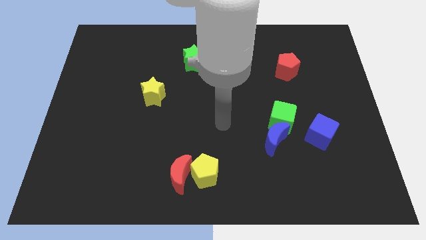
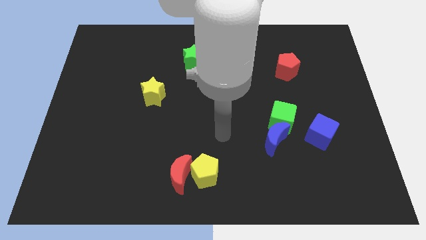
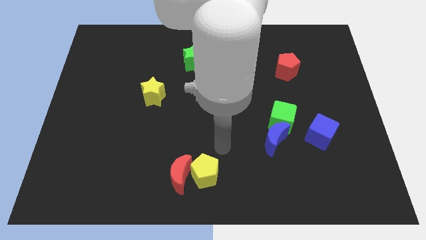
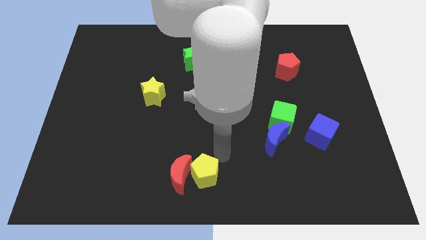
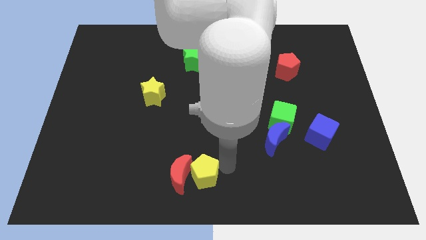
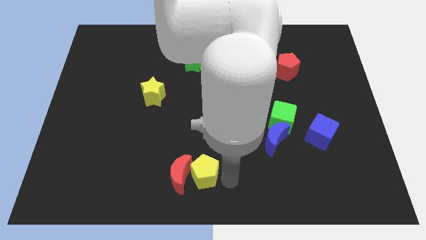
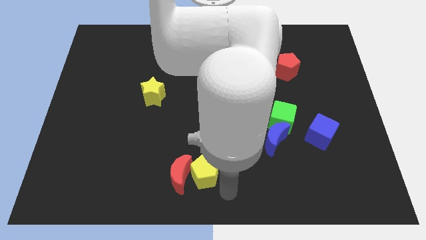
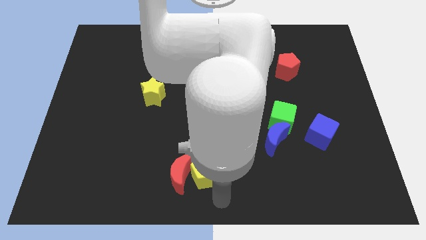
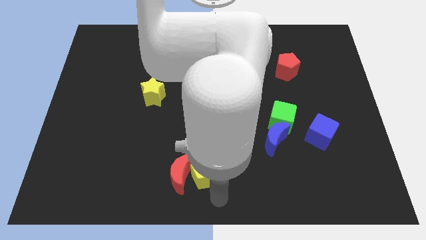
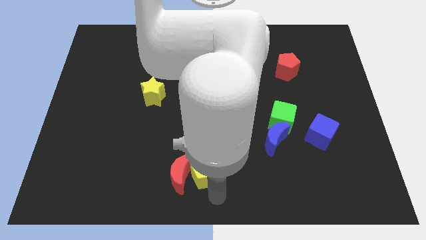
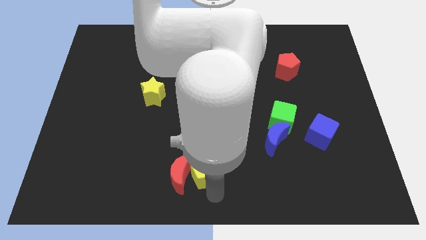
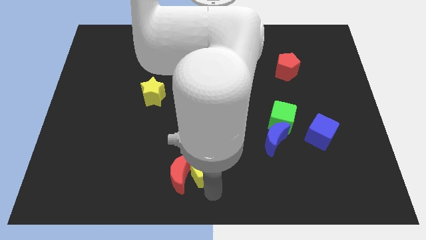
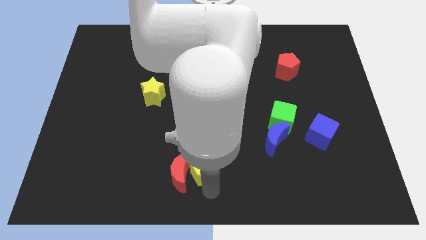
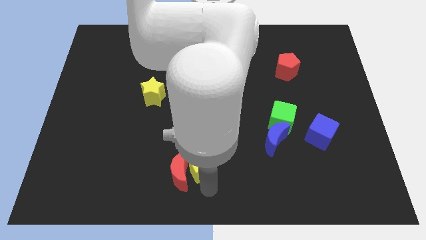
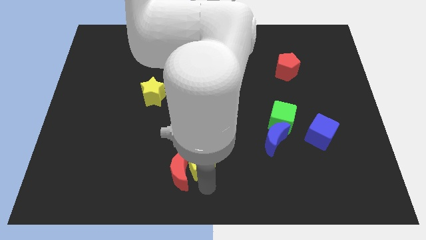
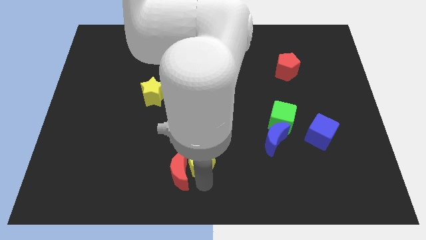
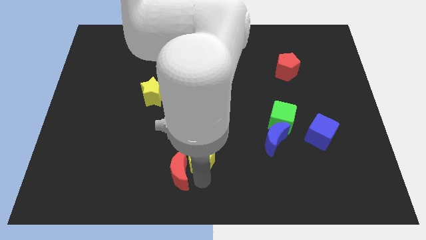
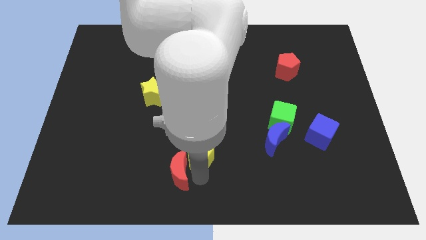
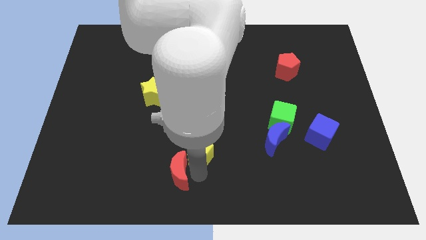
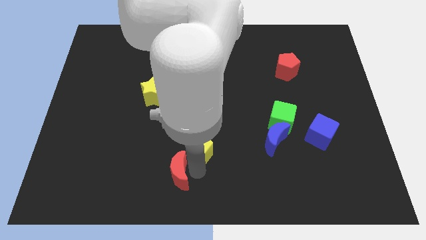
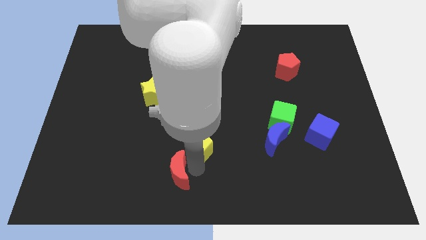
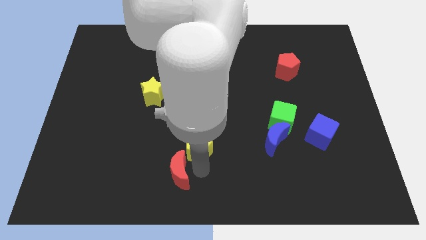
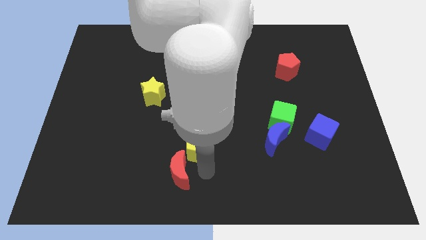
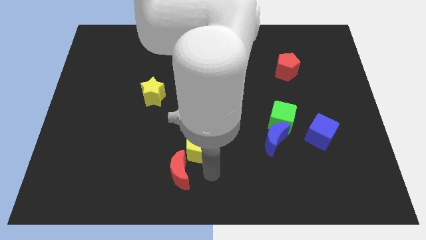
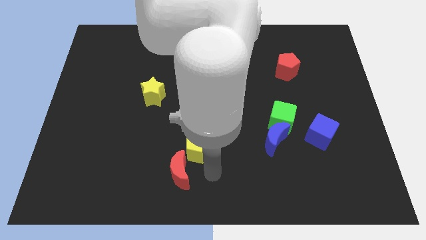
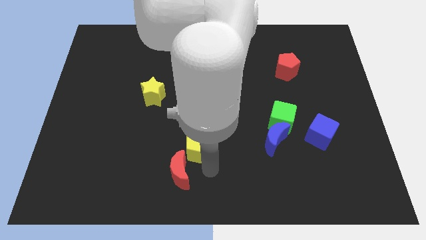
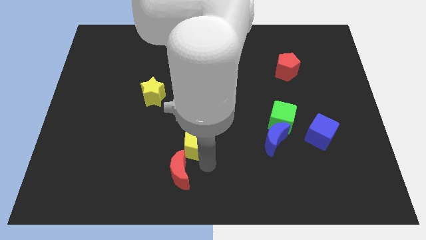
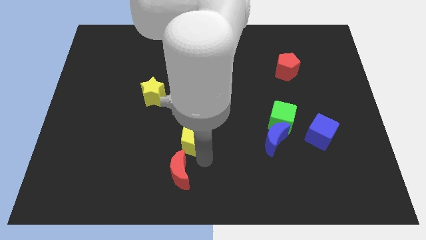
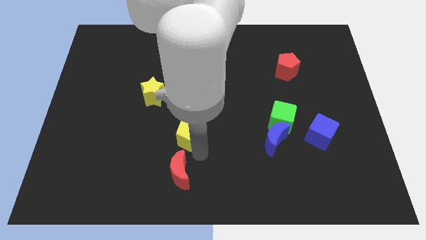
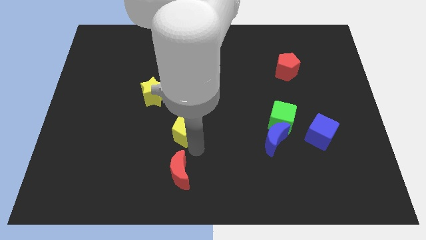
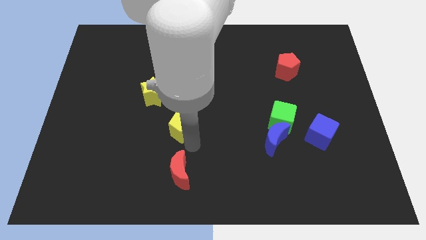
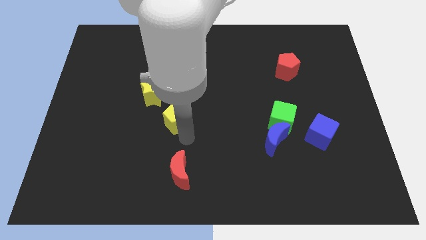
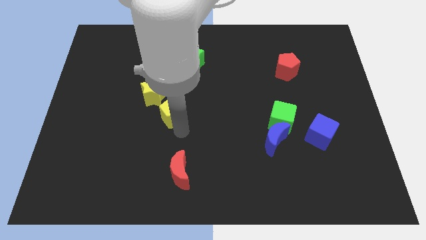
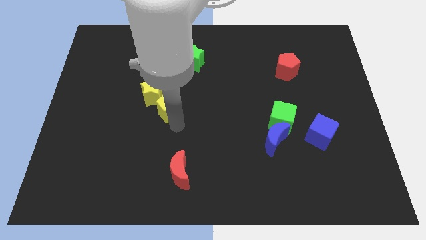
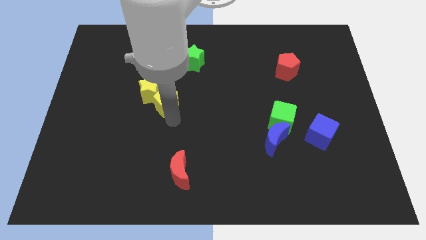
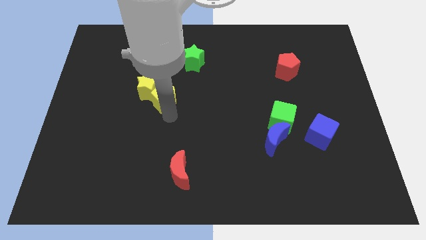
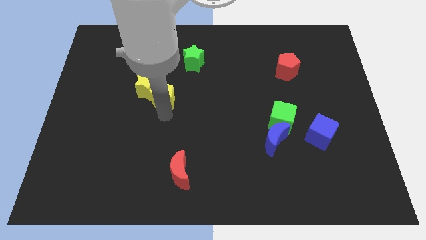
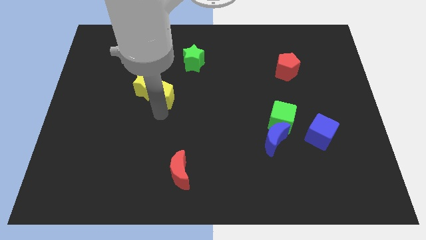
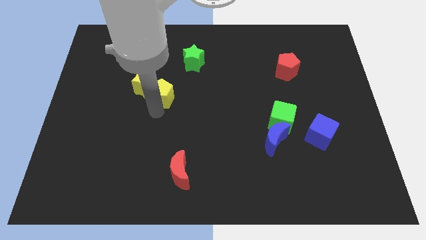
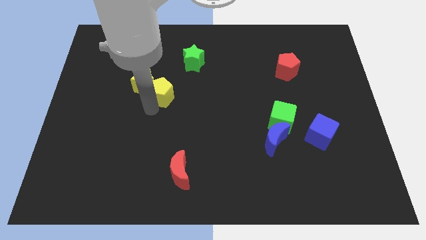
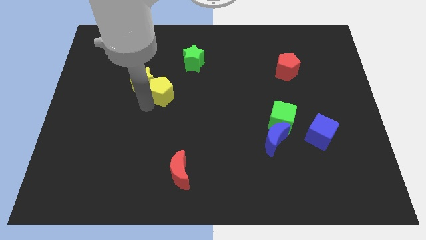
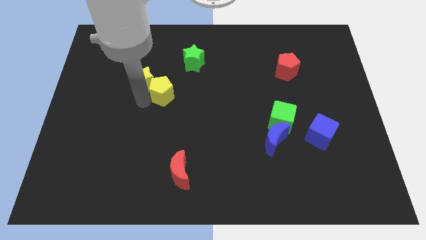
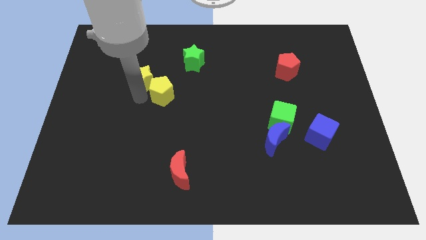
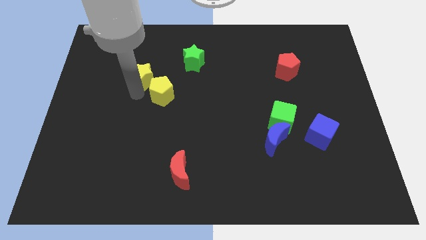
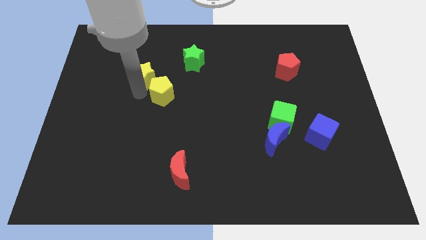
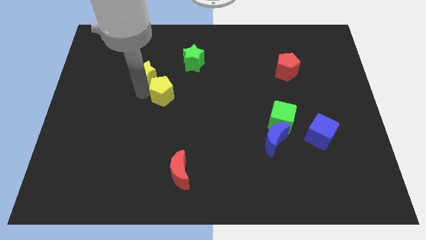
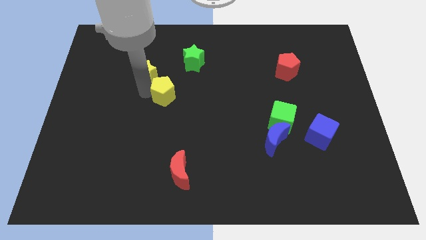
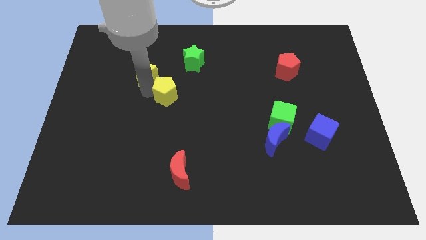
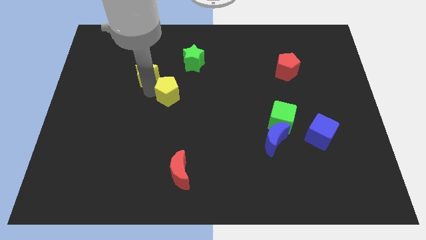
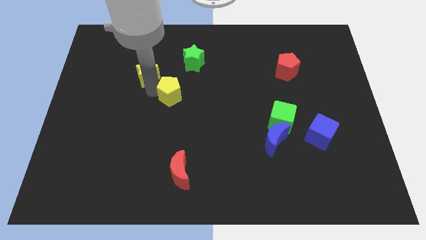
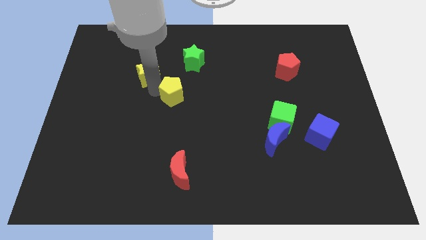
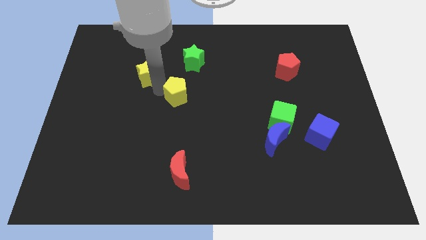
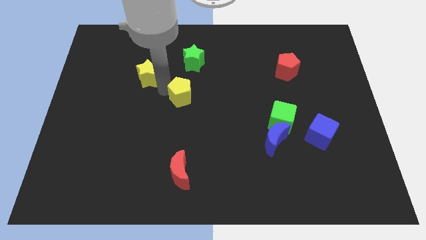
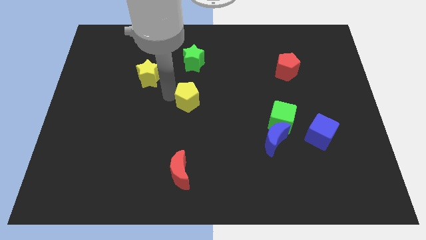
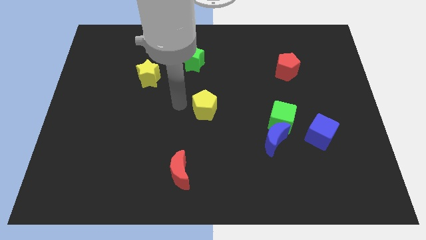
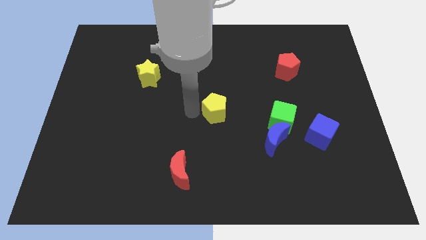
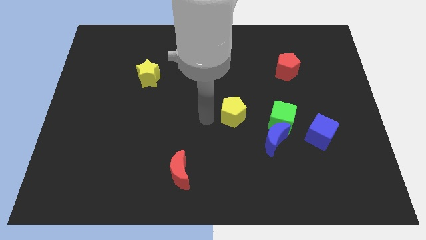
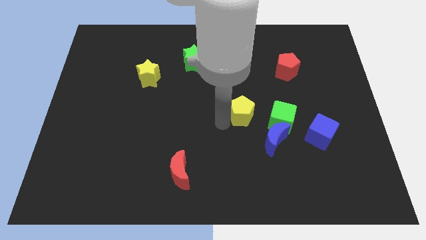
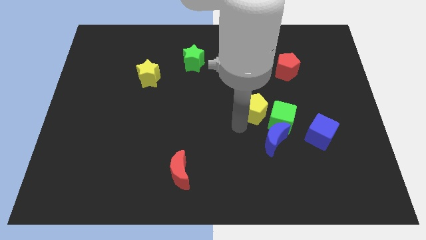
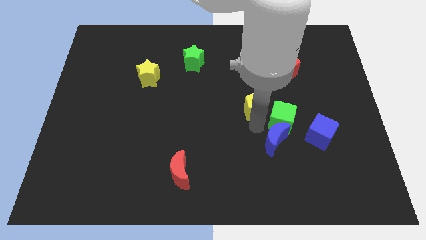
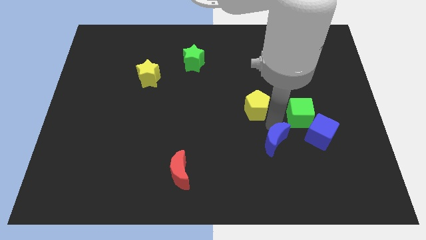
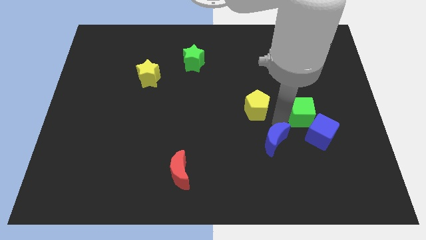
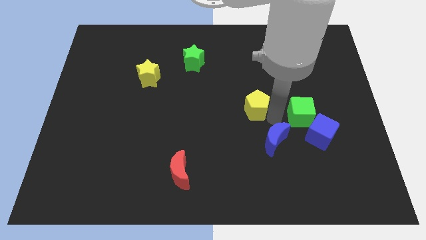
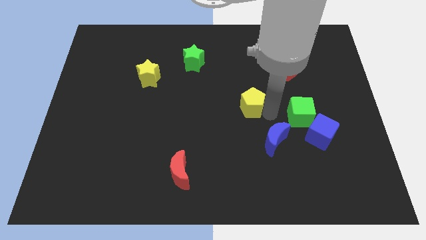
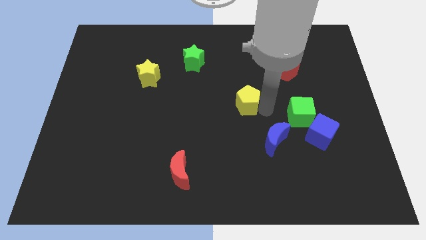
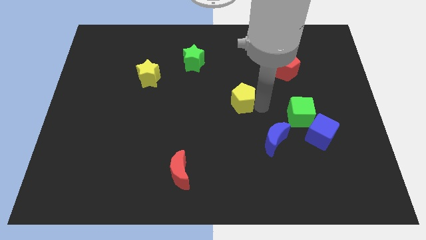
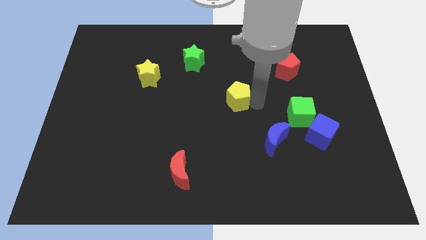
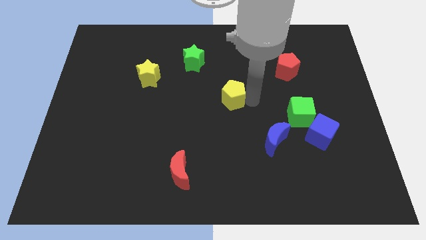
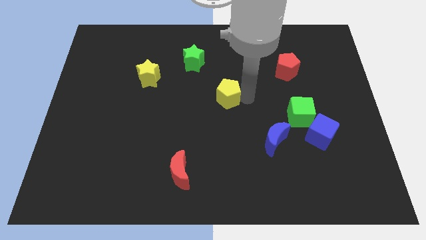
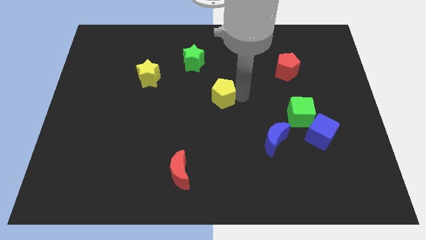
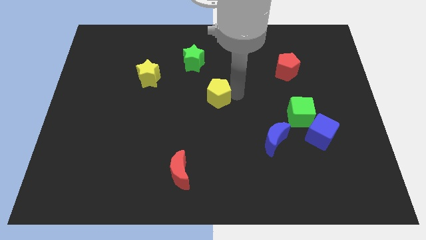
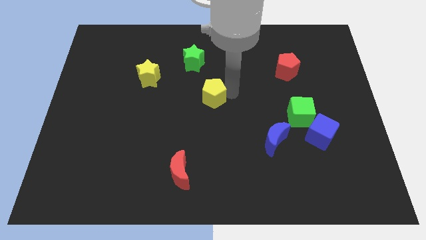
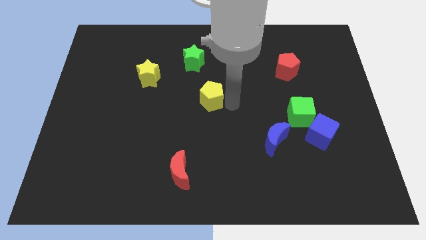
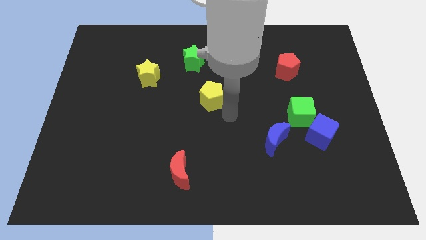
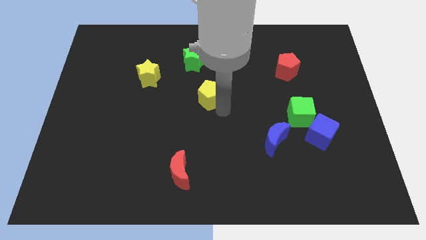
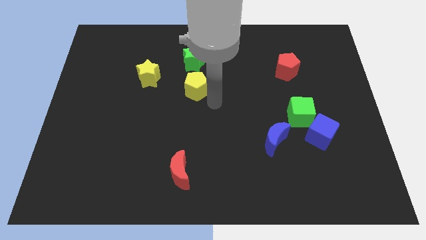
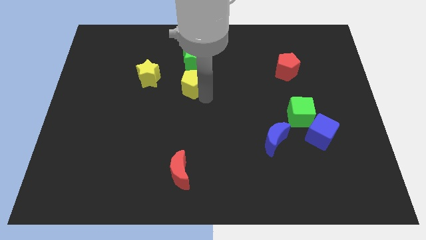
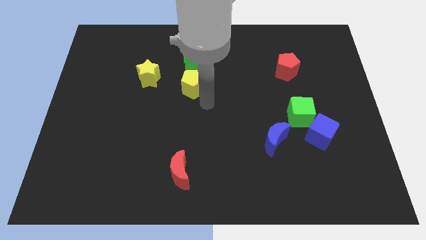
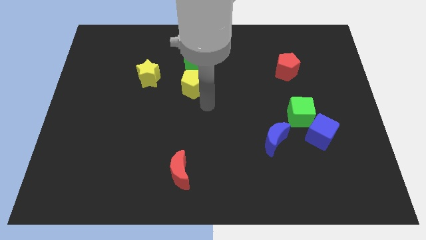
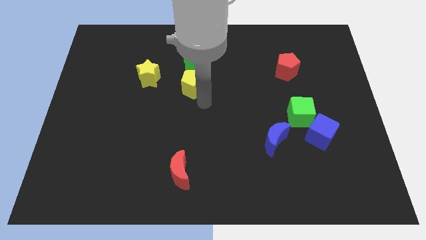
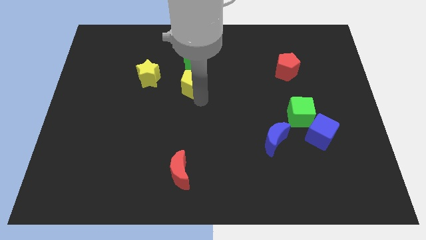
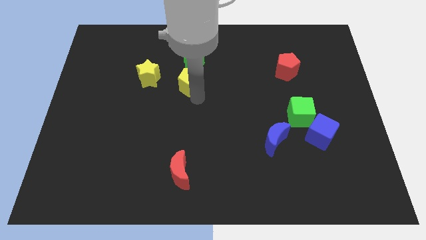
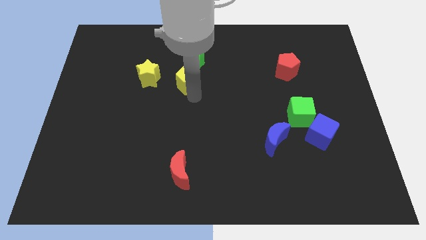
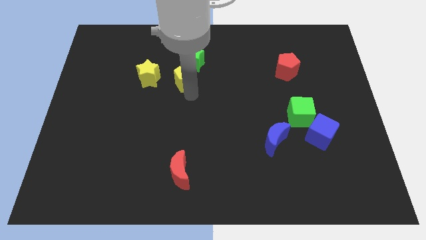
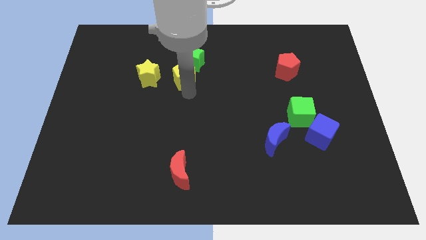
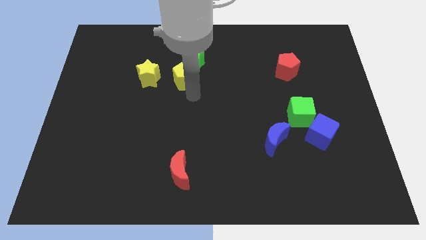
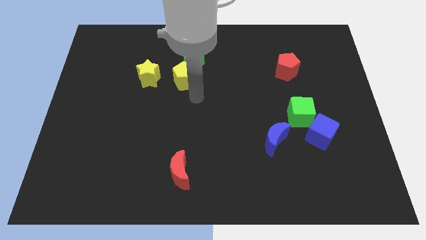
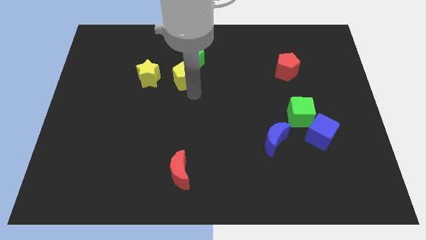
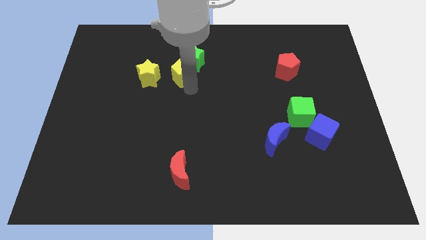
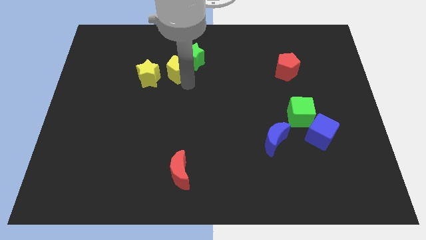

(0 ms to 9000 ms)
move the yellow pentagon to the top right side of the yellow star
